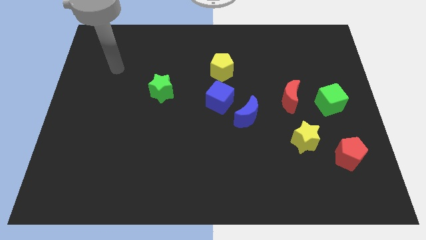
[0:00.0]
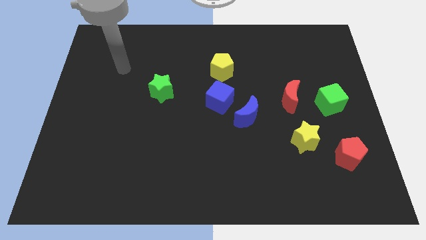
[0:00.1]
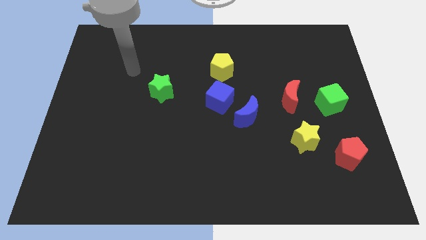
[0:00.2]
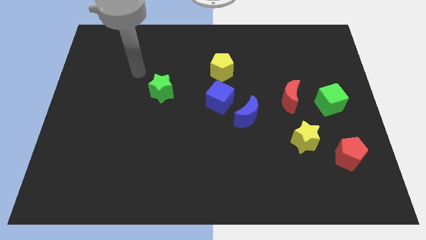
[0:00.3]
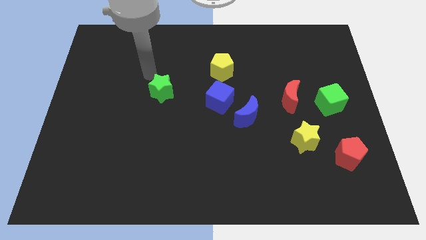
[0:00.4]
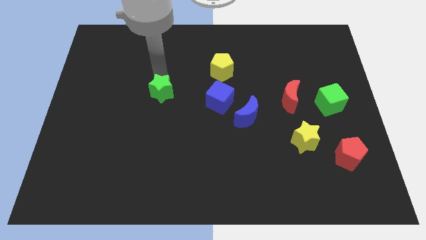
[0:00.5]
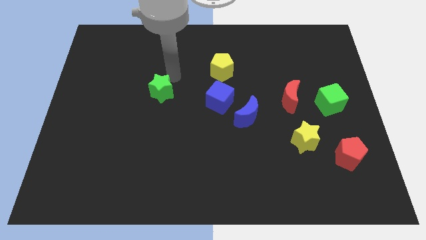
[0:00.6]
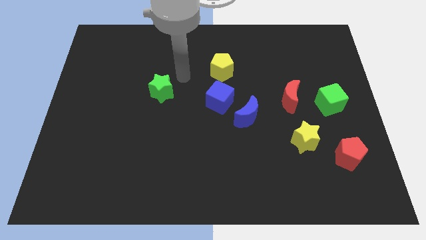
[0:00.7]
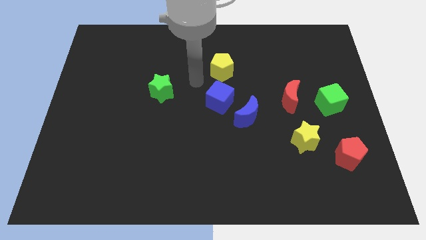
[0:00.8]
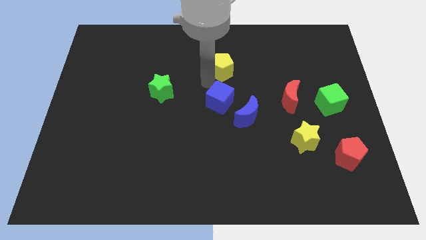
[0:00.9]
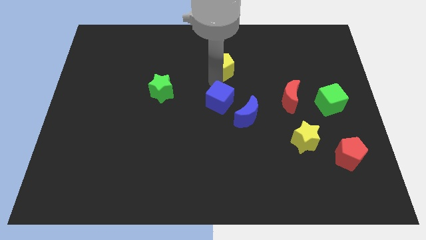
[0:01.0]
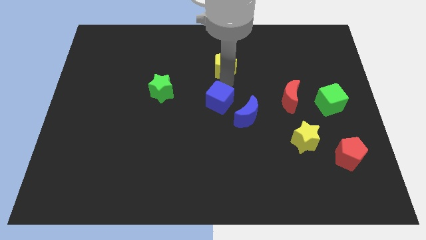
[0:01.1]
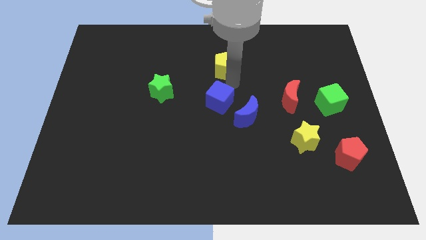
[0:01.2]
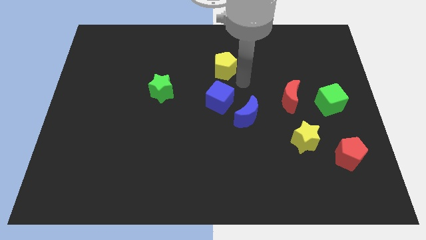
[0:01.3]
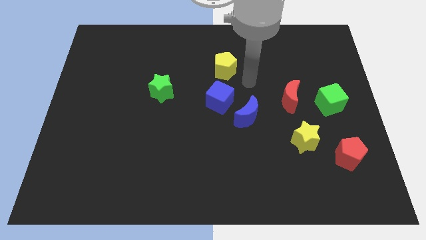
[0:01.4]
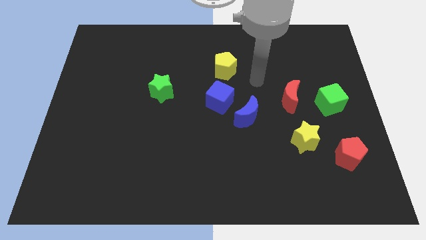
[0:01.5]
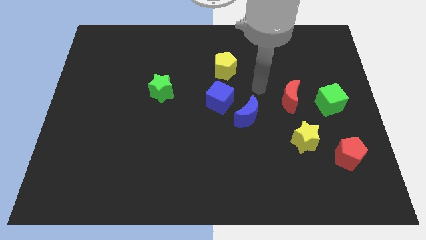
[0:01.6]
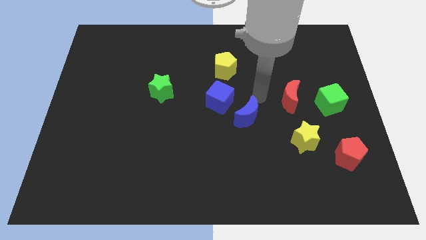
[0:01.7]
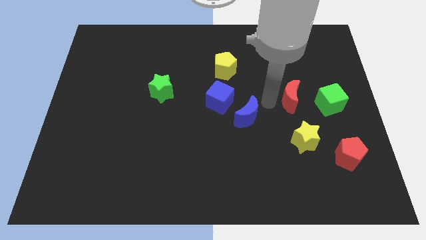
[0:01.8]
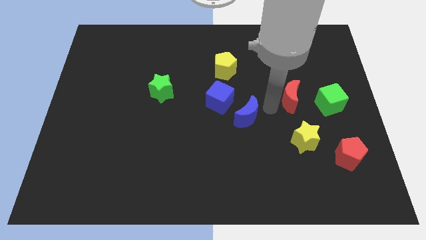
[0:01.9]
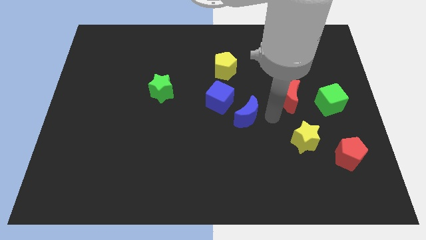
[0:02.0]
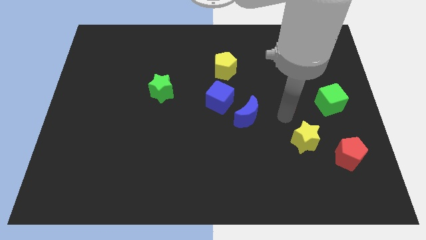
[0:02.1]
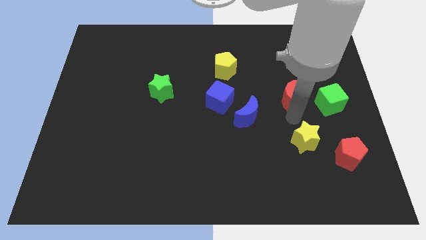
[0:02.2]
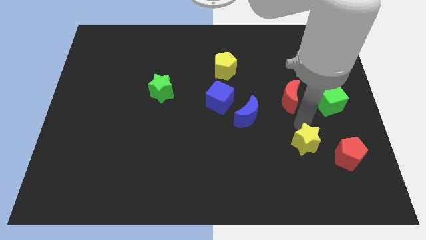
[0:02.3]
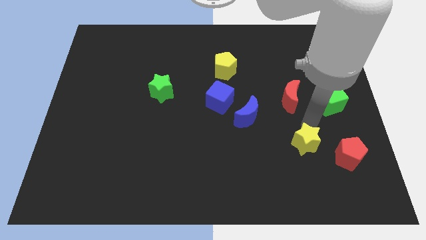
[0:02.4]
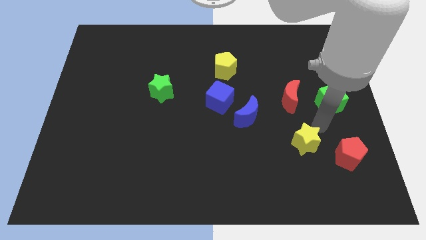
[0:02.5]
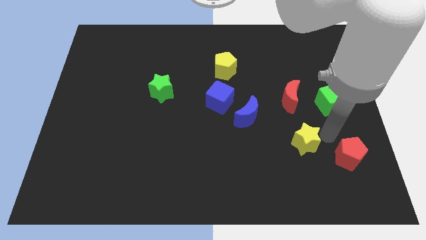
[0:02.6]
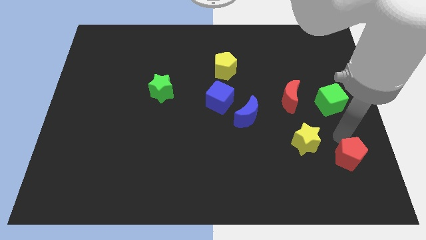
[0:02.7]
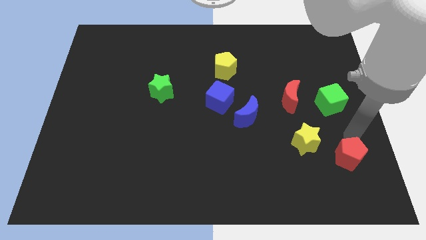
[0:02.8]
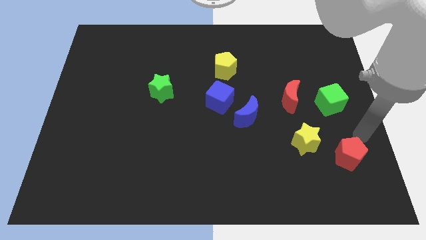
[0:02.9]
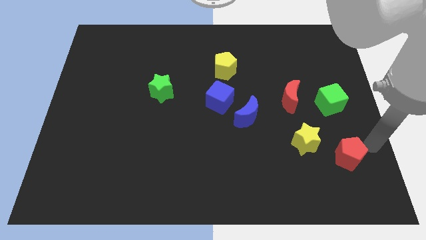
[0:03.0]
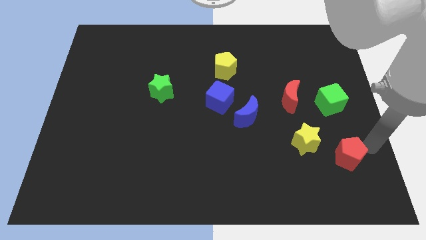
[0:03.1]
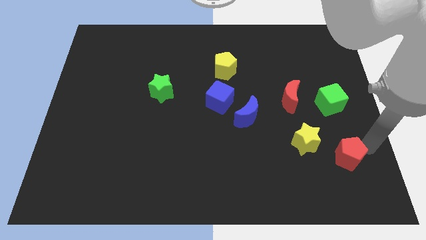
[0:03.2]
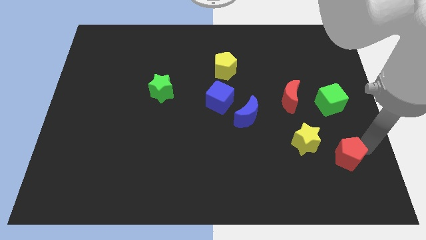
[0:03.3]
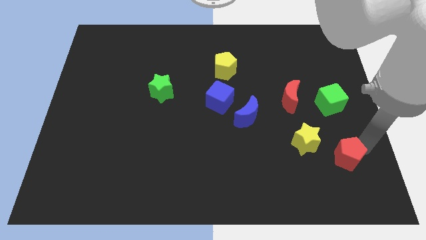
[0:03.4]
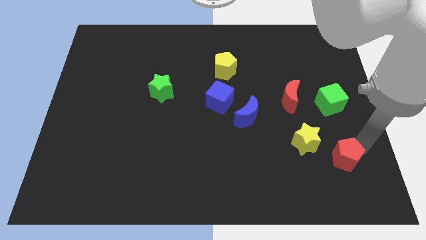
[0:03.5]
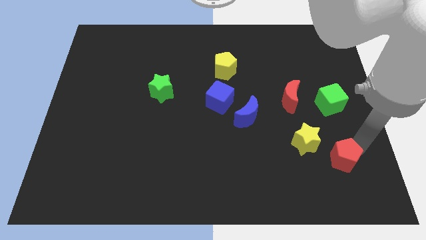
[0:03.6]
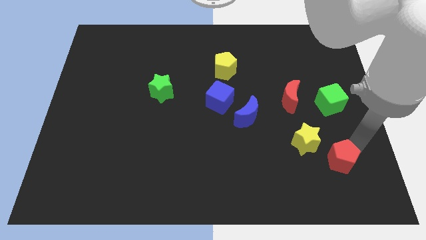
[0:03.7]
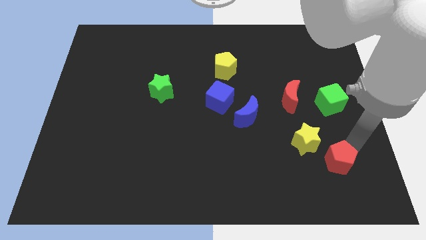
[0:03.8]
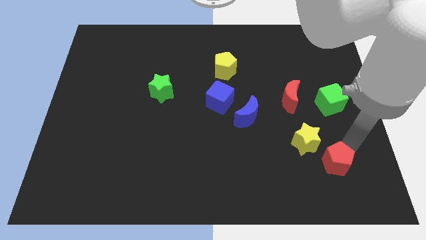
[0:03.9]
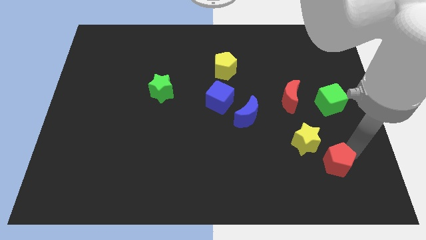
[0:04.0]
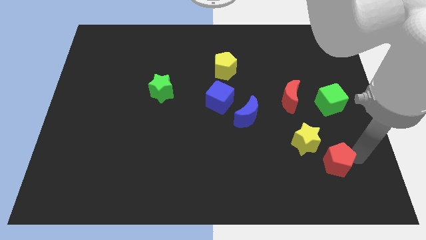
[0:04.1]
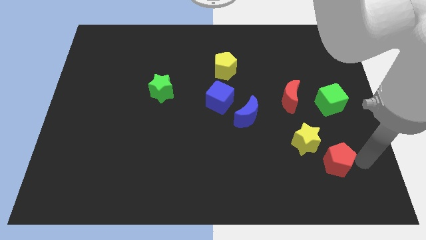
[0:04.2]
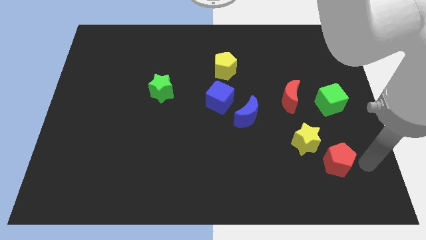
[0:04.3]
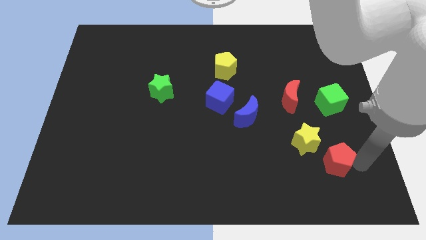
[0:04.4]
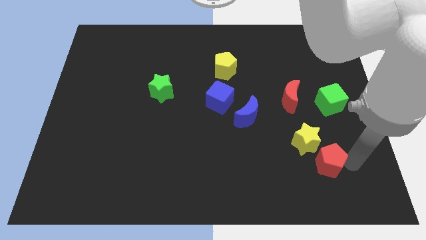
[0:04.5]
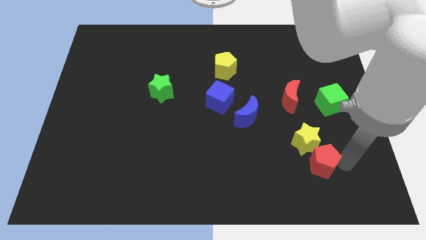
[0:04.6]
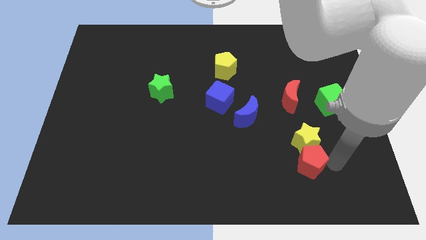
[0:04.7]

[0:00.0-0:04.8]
slightly slide the red pentagon to the left

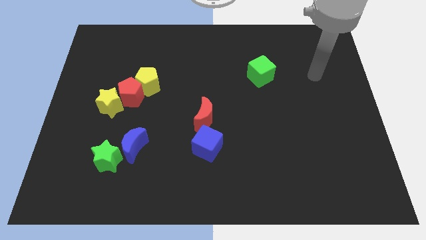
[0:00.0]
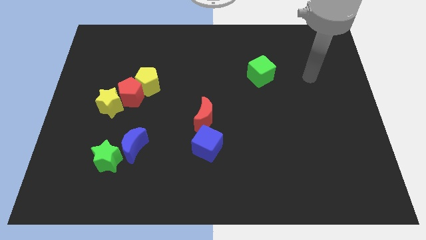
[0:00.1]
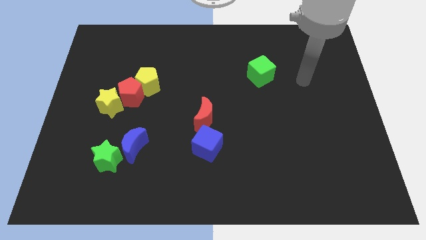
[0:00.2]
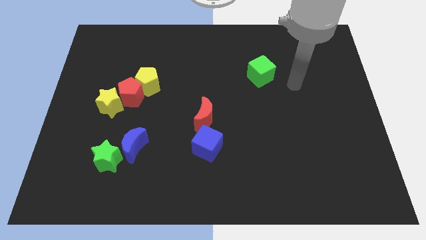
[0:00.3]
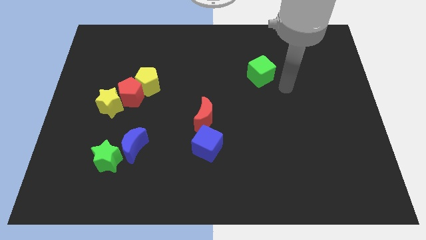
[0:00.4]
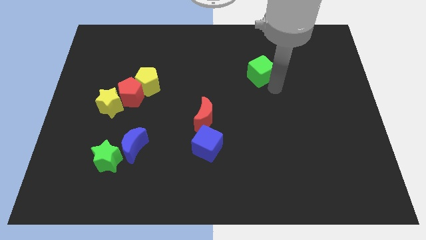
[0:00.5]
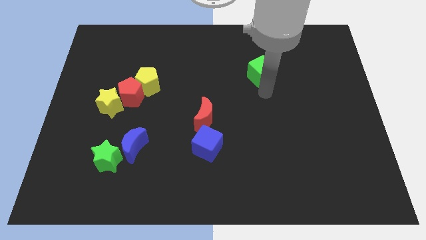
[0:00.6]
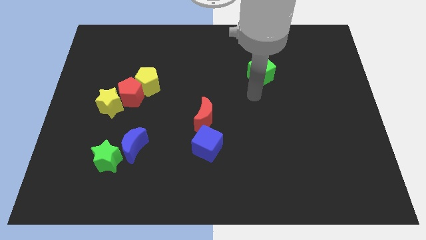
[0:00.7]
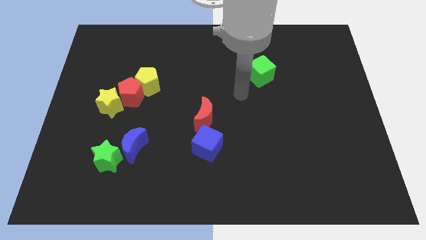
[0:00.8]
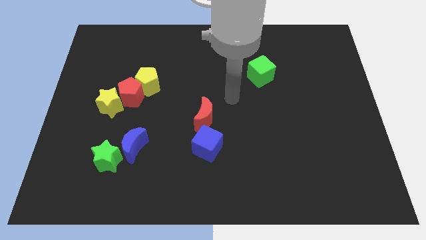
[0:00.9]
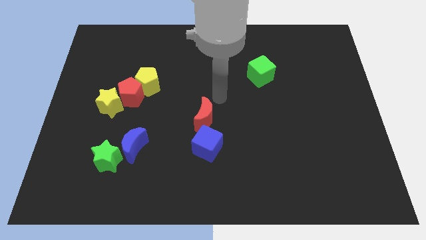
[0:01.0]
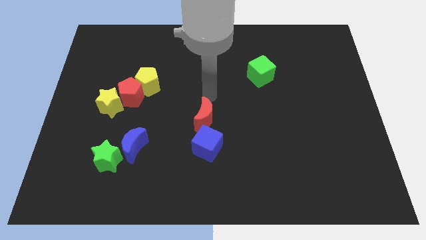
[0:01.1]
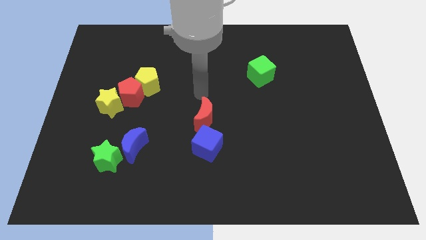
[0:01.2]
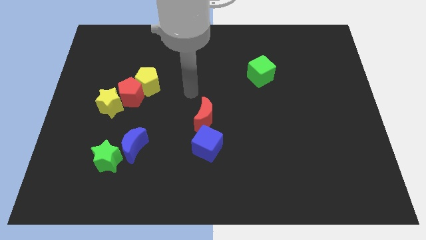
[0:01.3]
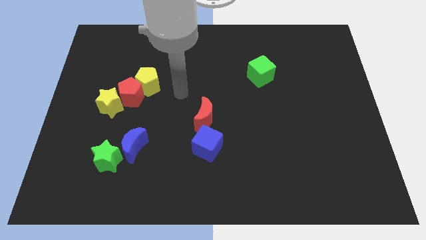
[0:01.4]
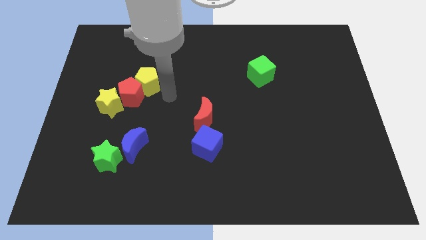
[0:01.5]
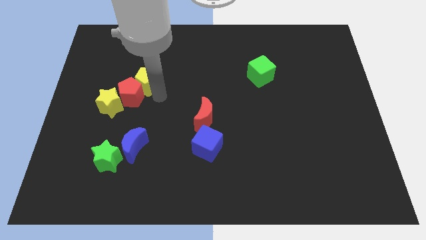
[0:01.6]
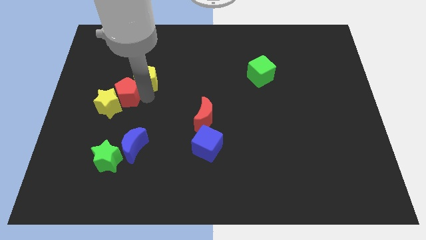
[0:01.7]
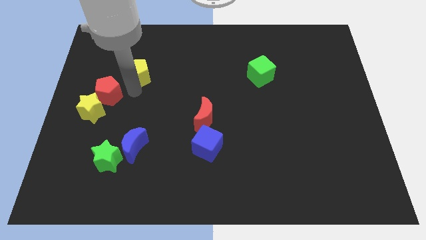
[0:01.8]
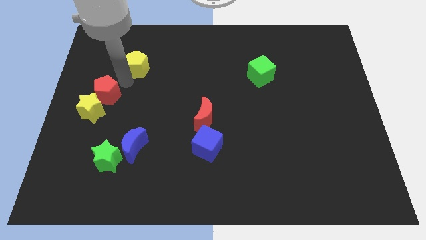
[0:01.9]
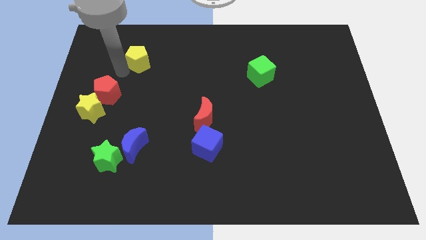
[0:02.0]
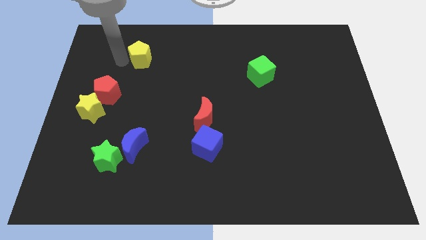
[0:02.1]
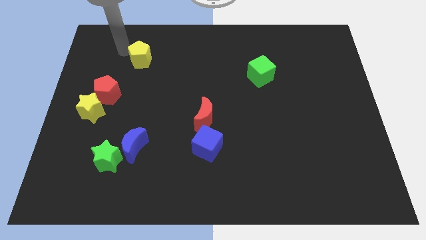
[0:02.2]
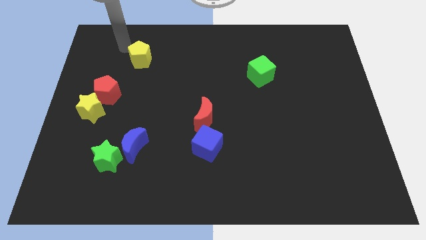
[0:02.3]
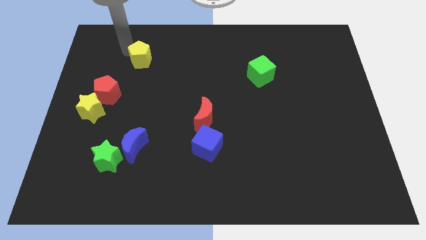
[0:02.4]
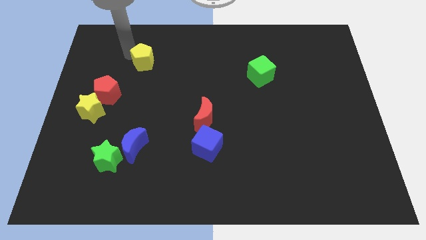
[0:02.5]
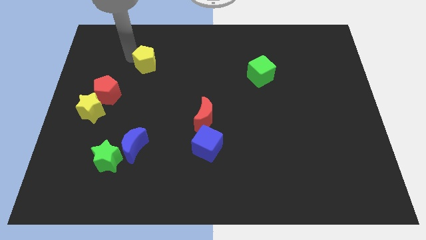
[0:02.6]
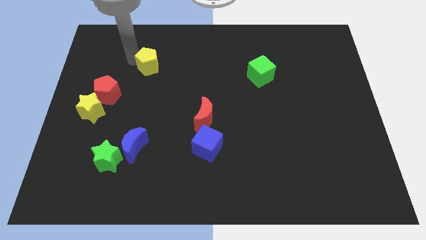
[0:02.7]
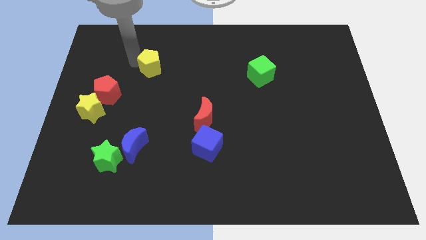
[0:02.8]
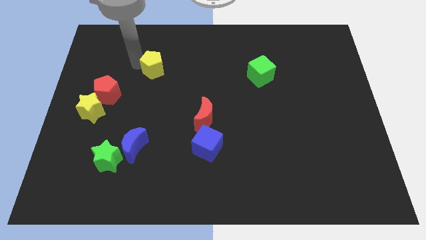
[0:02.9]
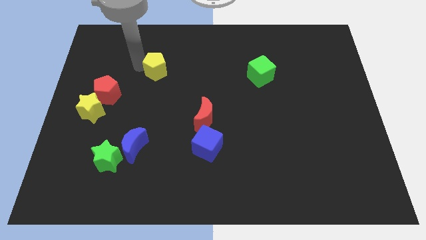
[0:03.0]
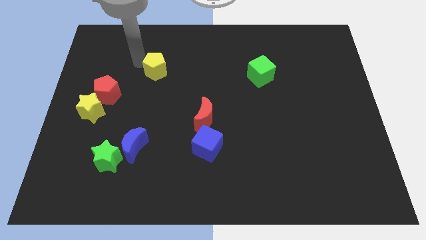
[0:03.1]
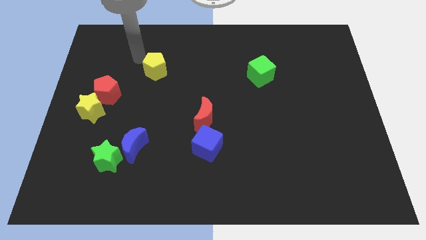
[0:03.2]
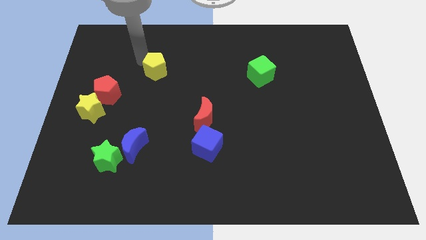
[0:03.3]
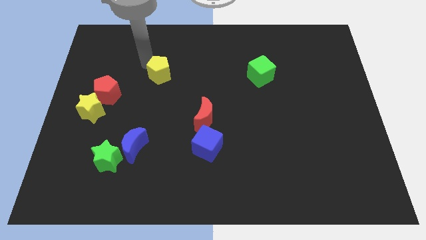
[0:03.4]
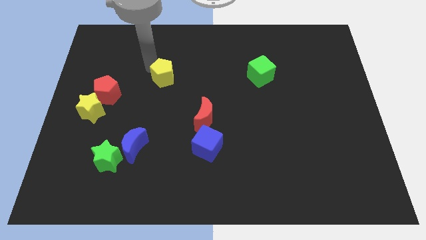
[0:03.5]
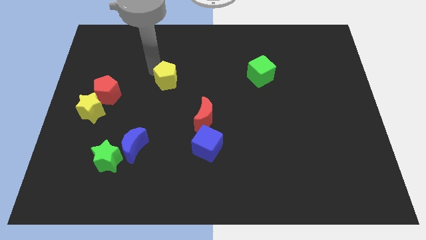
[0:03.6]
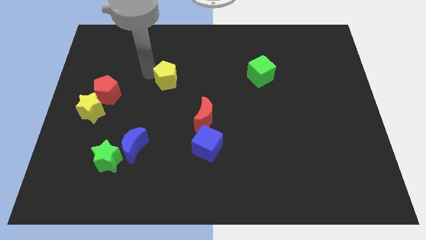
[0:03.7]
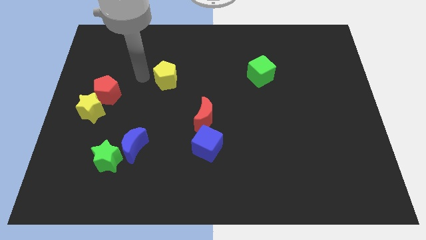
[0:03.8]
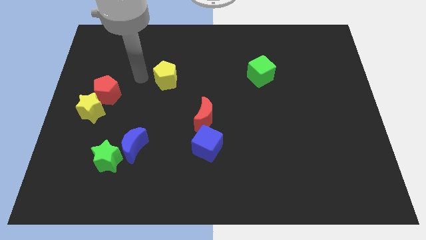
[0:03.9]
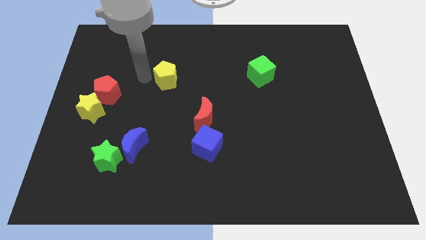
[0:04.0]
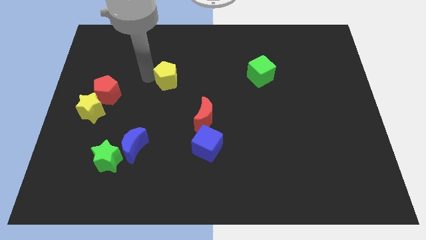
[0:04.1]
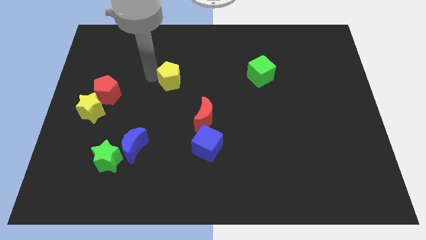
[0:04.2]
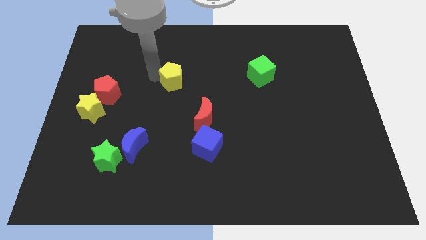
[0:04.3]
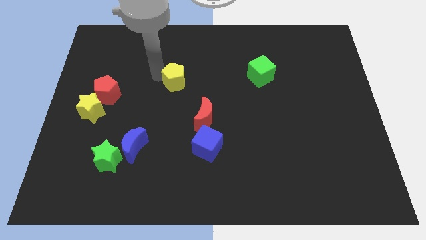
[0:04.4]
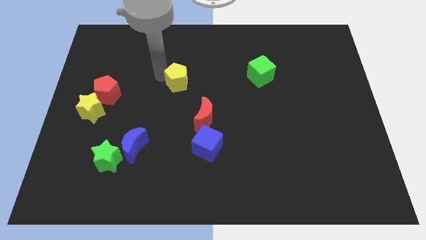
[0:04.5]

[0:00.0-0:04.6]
slide the yellow pentagon right a little
